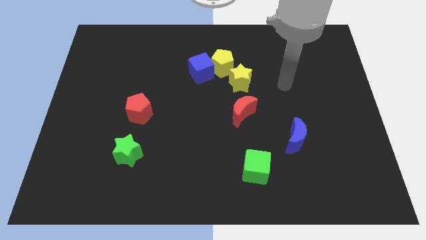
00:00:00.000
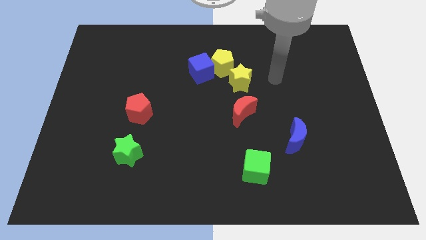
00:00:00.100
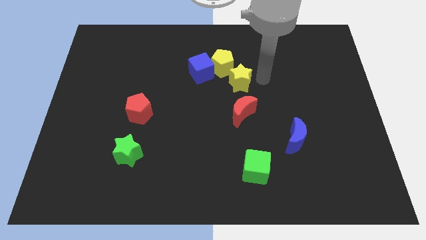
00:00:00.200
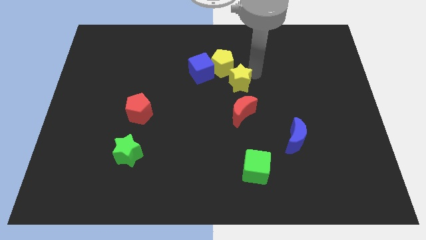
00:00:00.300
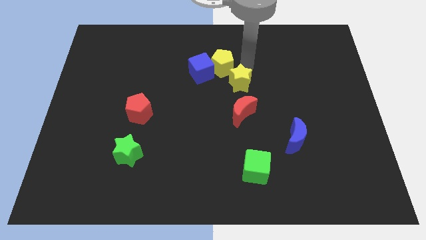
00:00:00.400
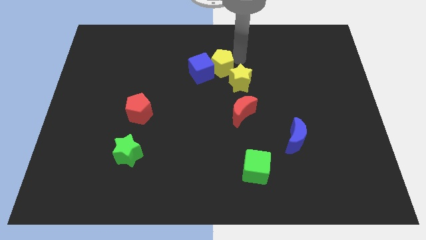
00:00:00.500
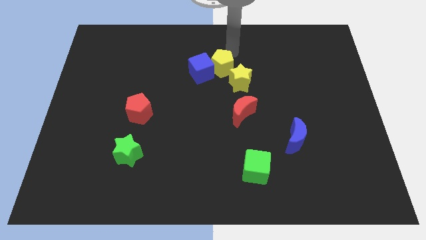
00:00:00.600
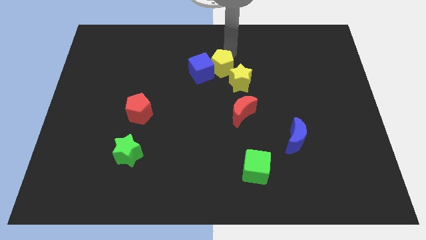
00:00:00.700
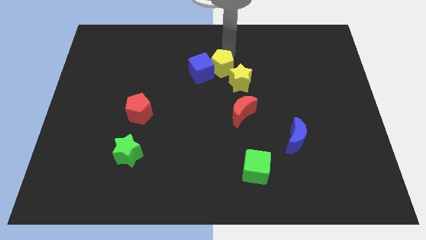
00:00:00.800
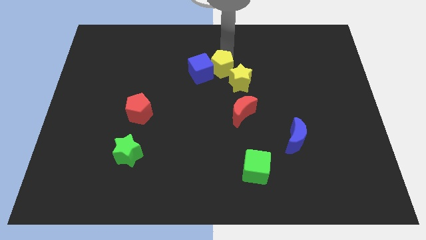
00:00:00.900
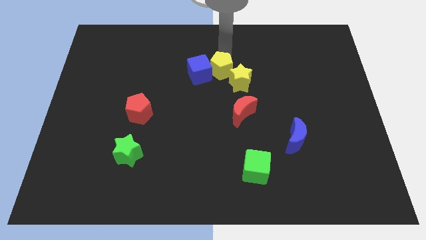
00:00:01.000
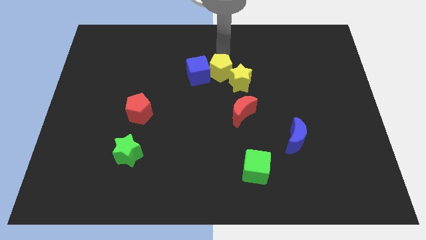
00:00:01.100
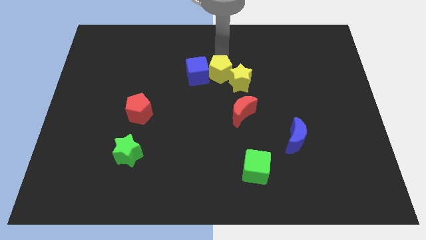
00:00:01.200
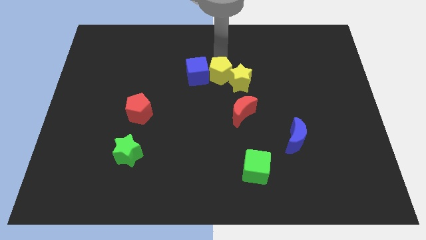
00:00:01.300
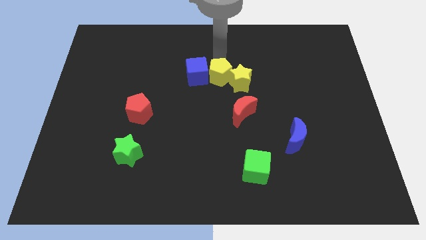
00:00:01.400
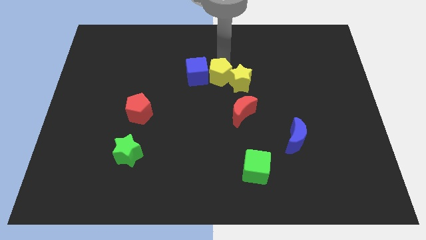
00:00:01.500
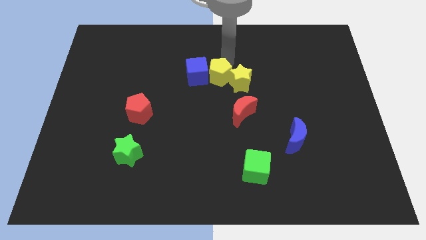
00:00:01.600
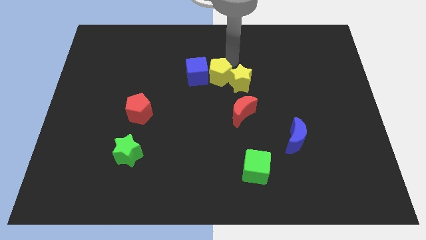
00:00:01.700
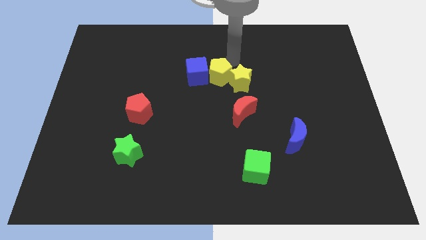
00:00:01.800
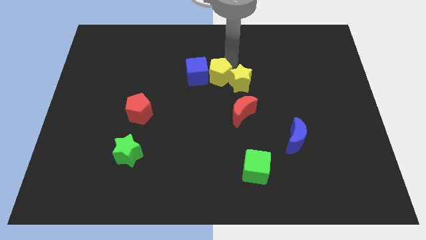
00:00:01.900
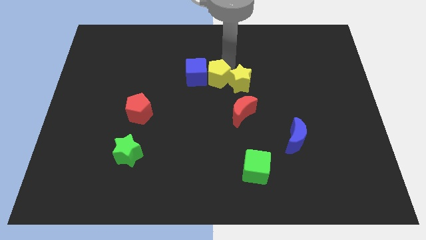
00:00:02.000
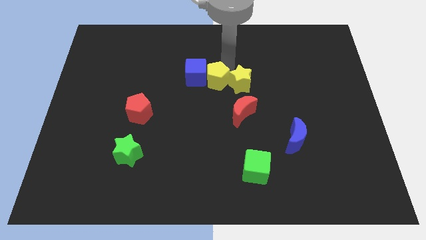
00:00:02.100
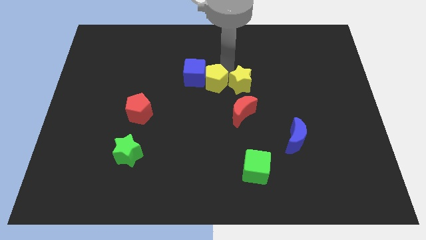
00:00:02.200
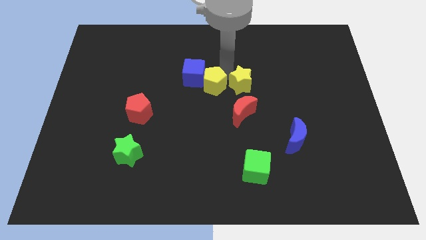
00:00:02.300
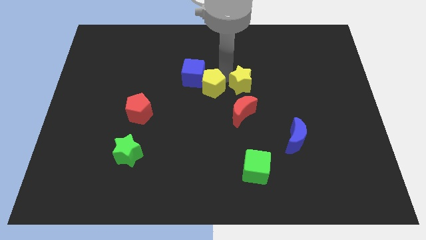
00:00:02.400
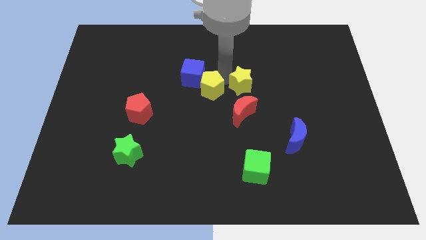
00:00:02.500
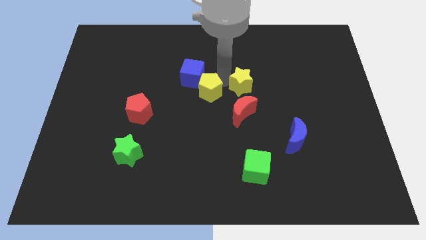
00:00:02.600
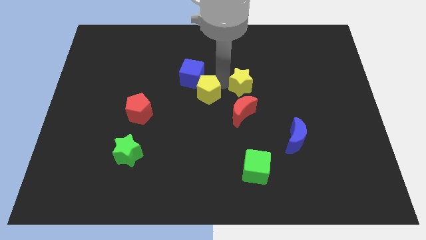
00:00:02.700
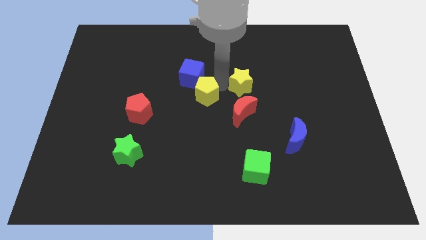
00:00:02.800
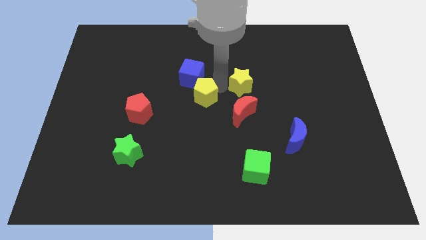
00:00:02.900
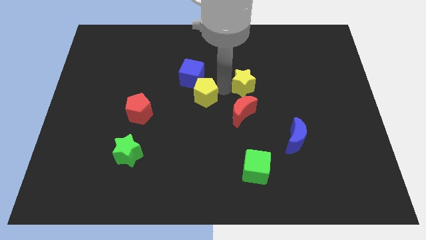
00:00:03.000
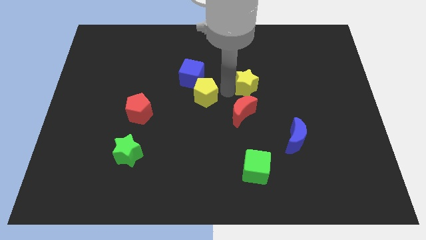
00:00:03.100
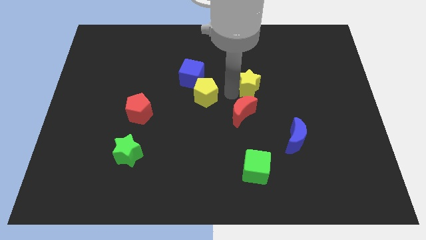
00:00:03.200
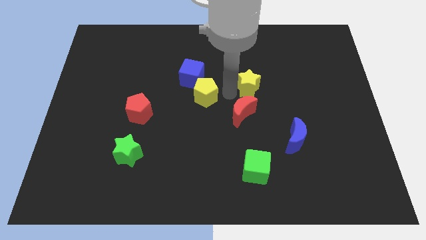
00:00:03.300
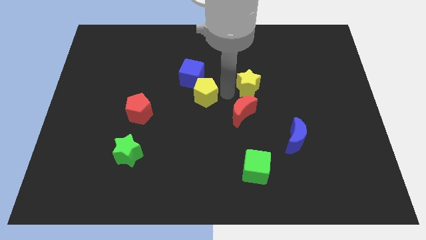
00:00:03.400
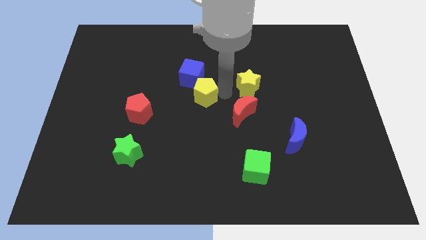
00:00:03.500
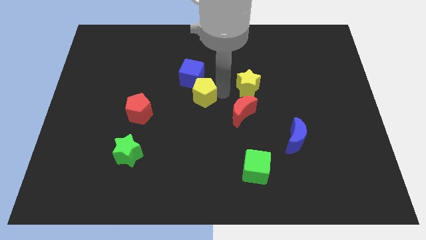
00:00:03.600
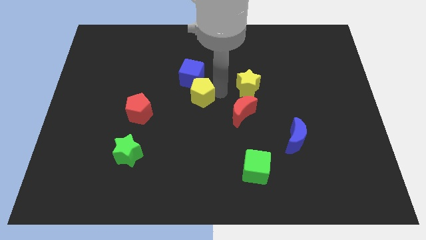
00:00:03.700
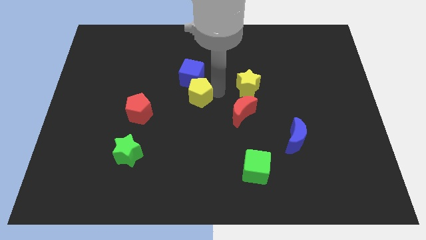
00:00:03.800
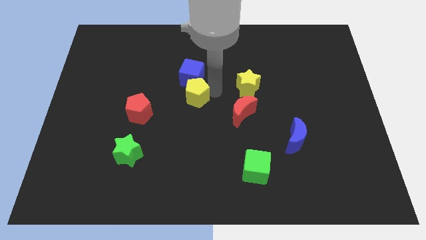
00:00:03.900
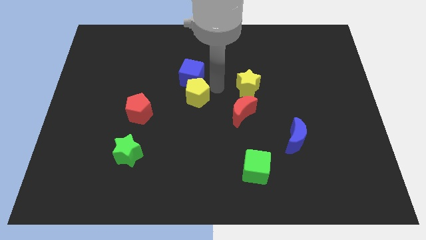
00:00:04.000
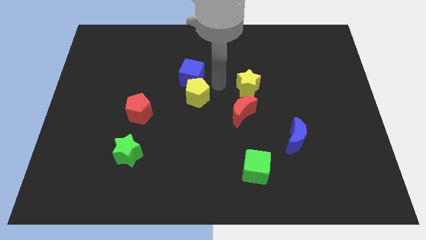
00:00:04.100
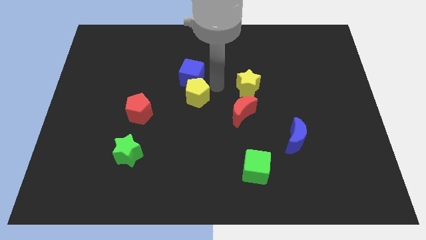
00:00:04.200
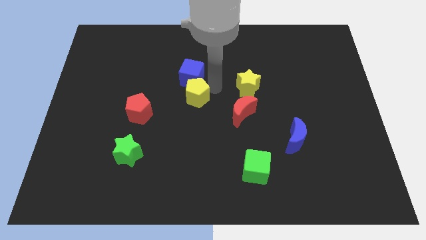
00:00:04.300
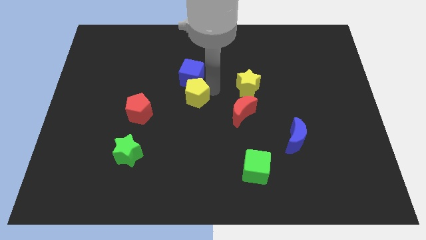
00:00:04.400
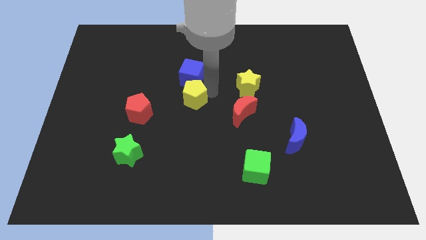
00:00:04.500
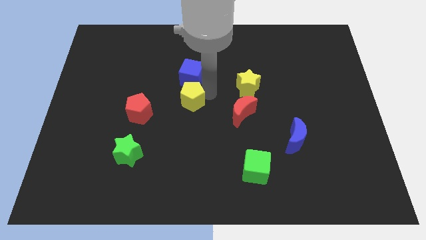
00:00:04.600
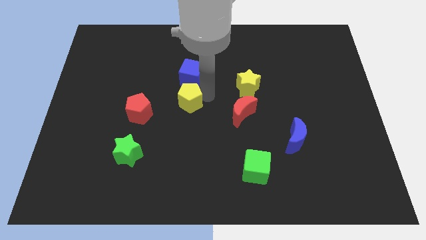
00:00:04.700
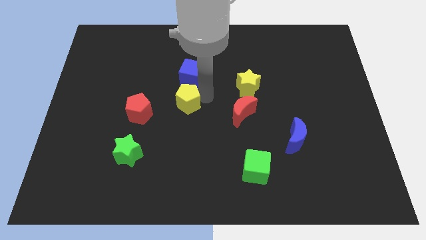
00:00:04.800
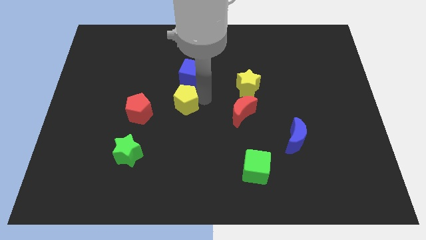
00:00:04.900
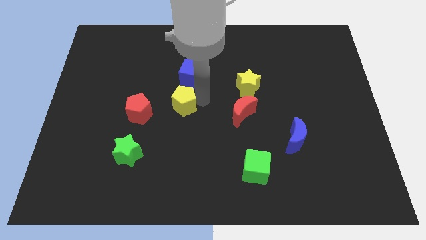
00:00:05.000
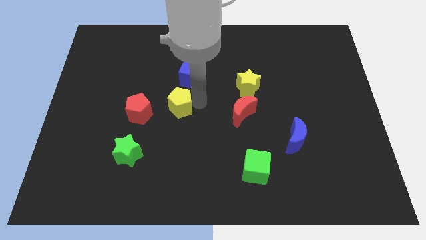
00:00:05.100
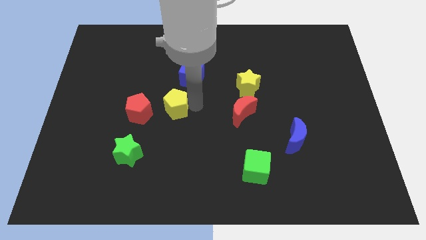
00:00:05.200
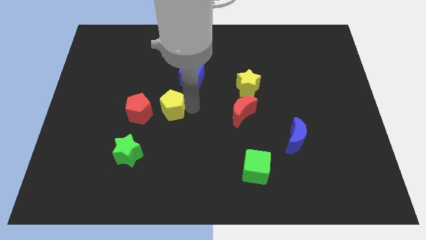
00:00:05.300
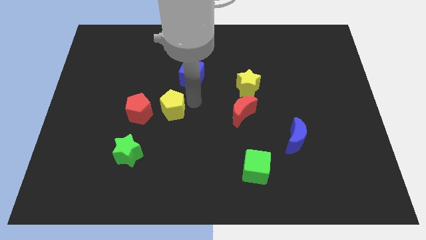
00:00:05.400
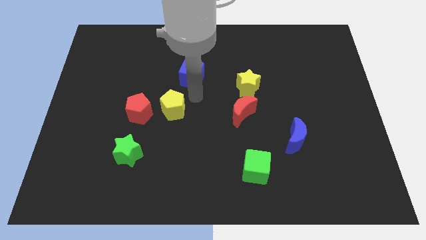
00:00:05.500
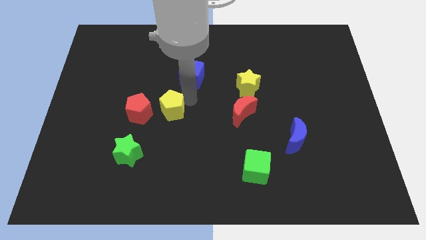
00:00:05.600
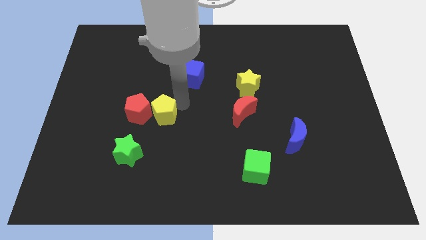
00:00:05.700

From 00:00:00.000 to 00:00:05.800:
move the yellow pentagon down and then left

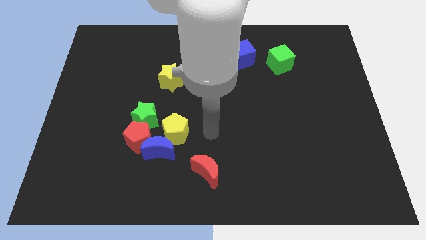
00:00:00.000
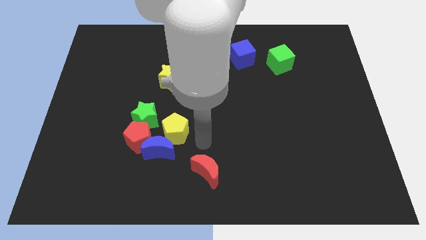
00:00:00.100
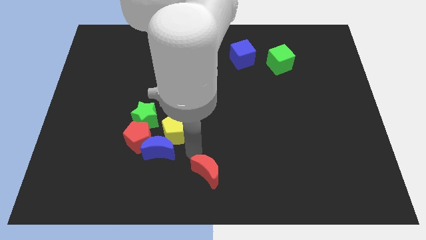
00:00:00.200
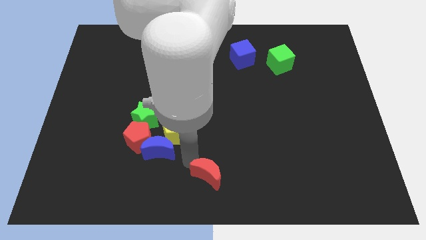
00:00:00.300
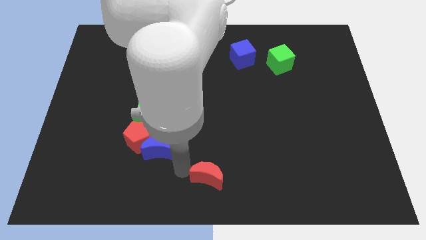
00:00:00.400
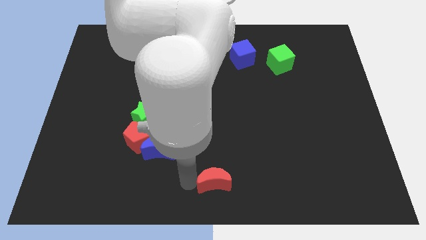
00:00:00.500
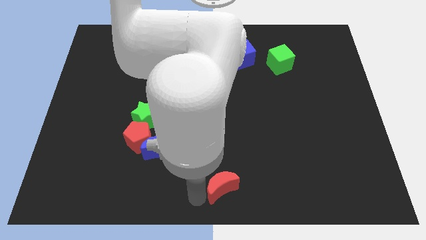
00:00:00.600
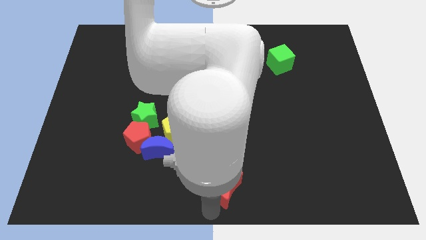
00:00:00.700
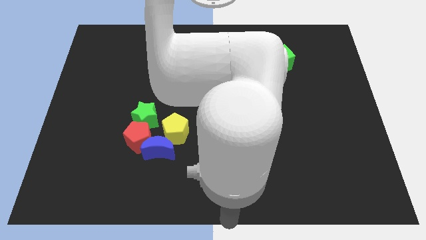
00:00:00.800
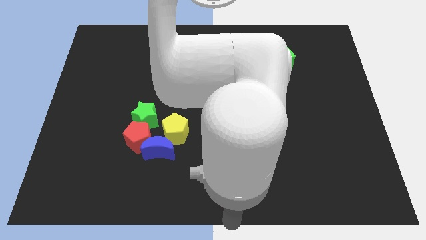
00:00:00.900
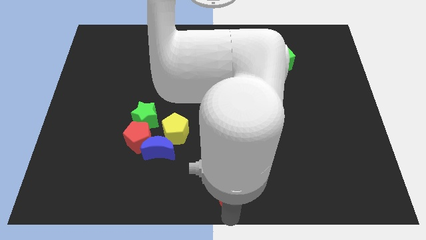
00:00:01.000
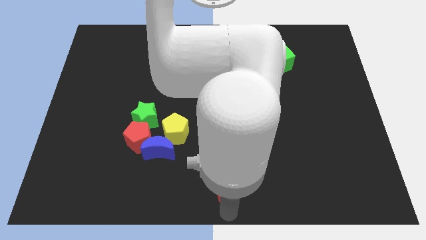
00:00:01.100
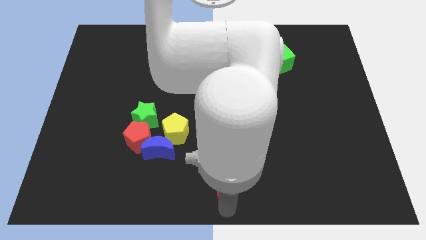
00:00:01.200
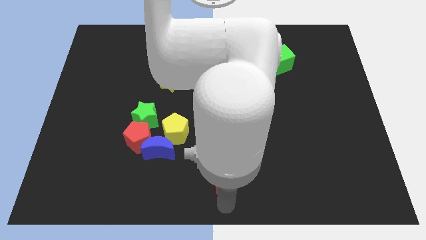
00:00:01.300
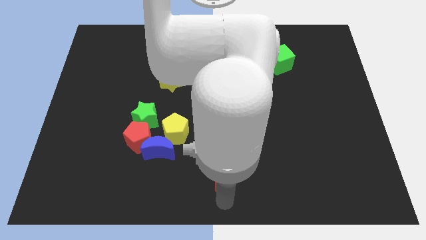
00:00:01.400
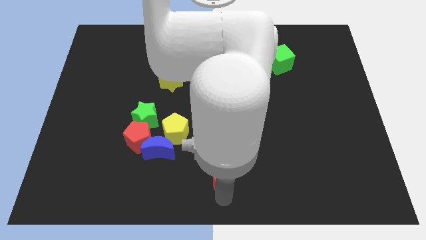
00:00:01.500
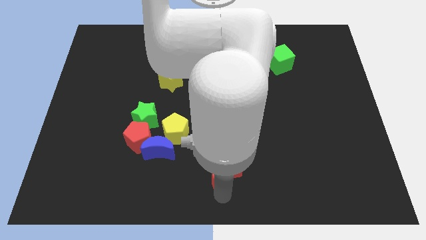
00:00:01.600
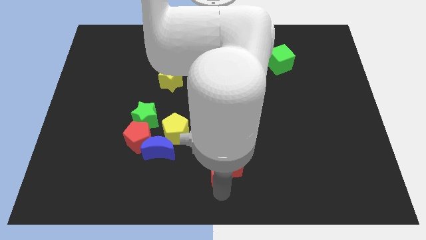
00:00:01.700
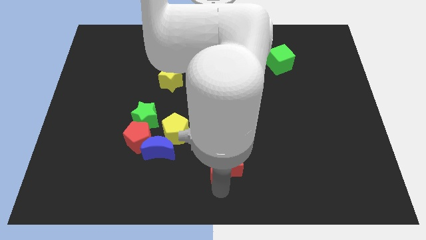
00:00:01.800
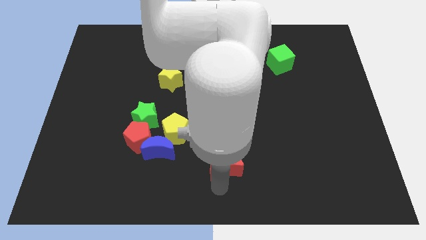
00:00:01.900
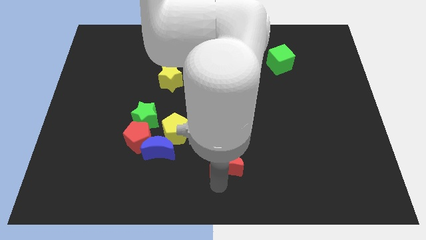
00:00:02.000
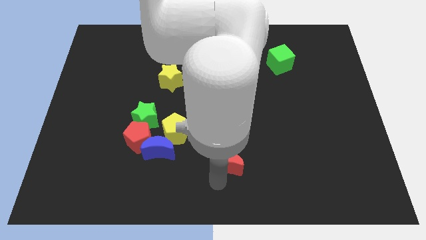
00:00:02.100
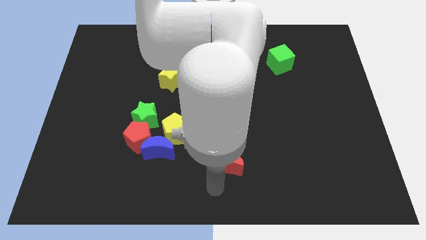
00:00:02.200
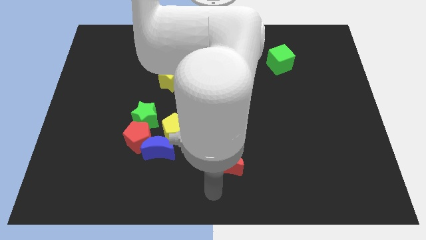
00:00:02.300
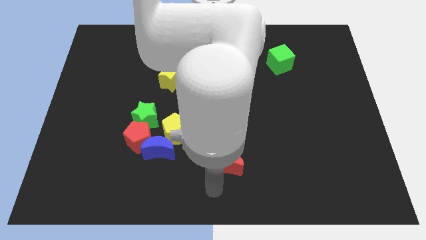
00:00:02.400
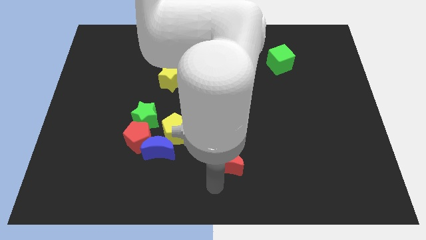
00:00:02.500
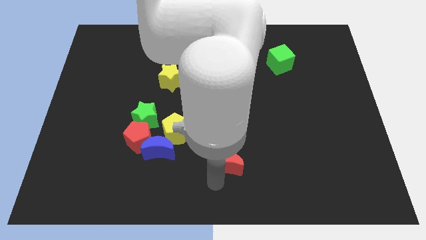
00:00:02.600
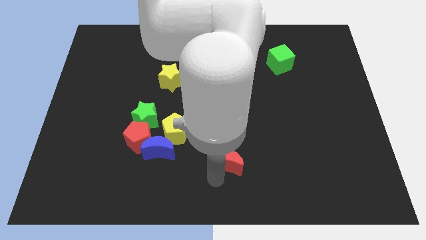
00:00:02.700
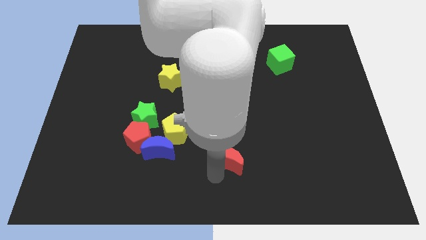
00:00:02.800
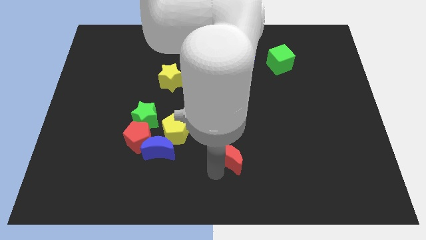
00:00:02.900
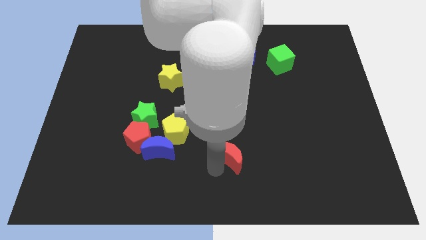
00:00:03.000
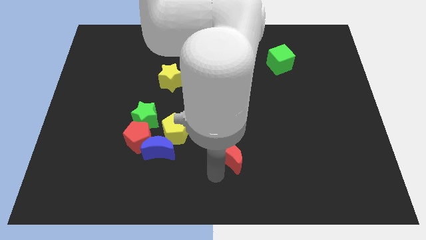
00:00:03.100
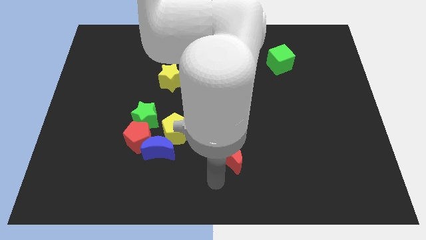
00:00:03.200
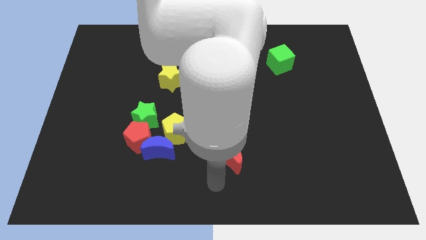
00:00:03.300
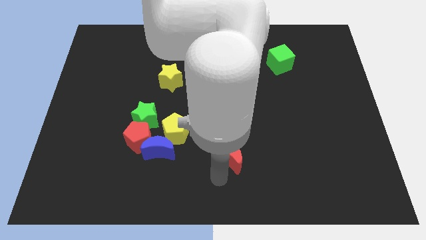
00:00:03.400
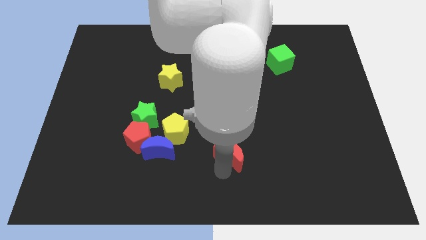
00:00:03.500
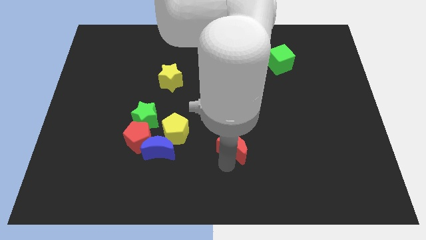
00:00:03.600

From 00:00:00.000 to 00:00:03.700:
slightly slide the red moon up and to the right
